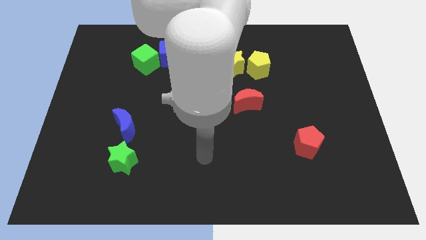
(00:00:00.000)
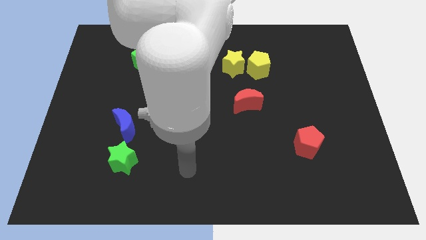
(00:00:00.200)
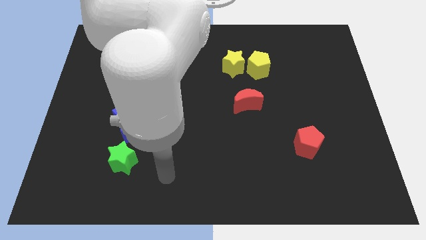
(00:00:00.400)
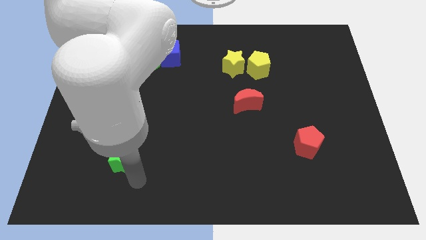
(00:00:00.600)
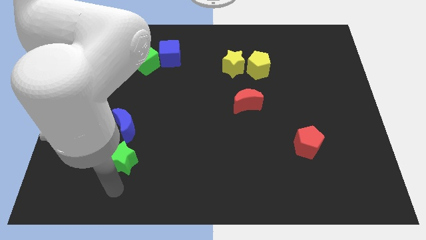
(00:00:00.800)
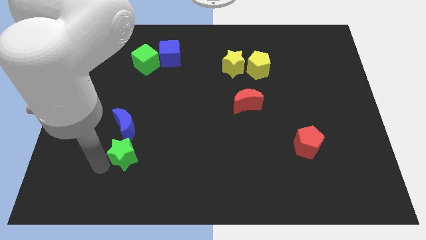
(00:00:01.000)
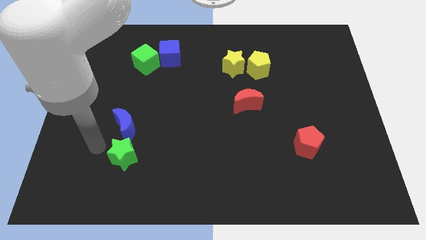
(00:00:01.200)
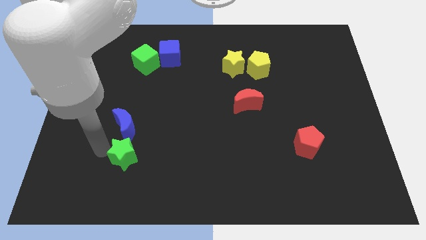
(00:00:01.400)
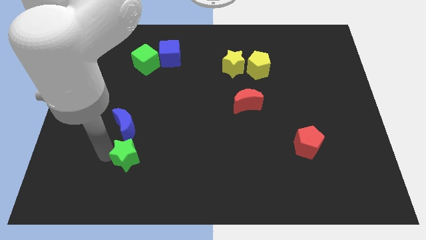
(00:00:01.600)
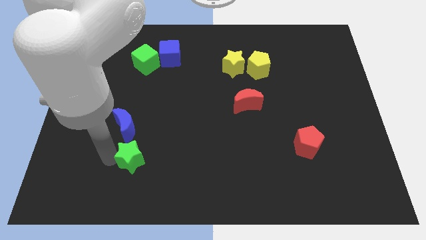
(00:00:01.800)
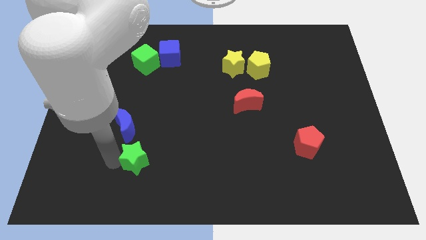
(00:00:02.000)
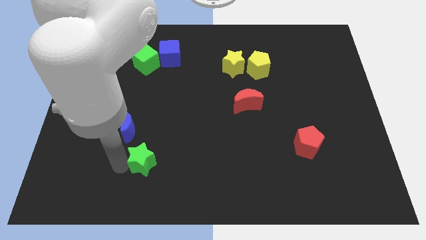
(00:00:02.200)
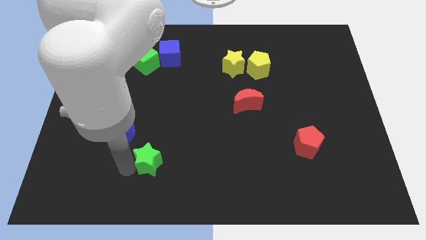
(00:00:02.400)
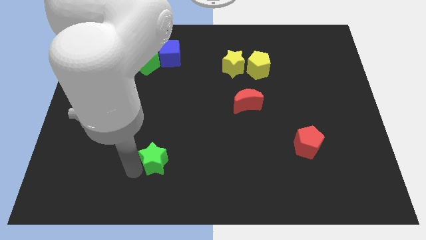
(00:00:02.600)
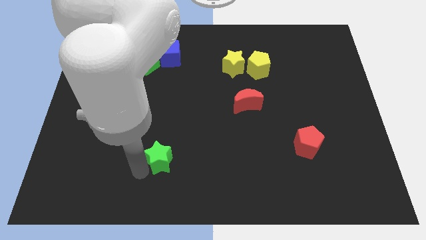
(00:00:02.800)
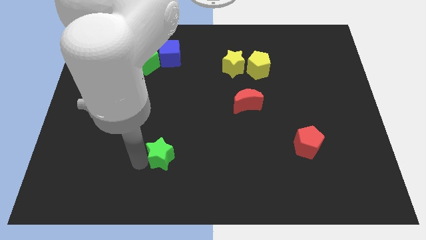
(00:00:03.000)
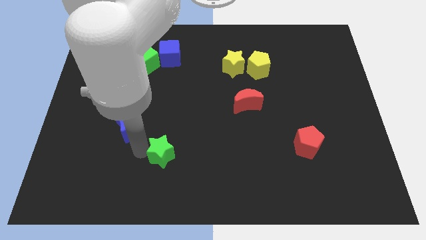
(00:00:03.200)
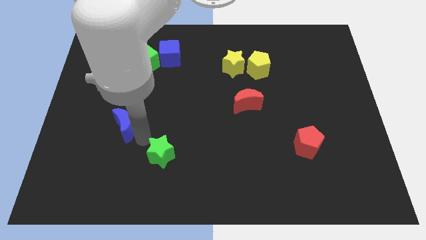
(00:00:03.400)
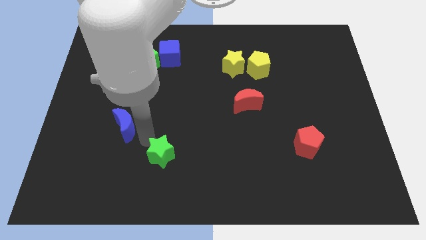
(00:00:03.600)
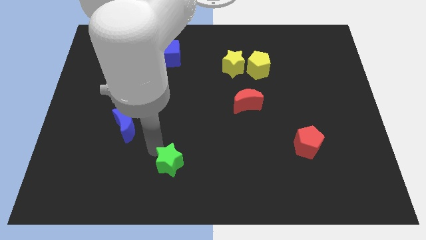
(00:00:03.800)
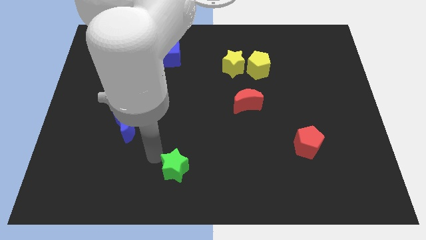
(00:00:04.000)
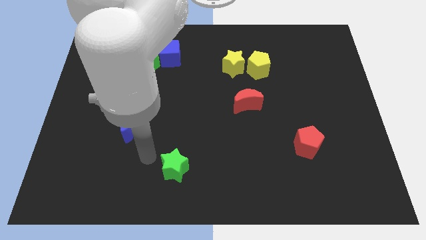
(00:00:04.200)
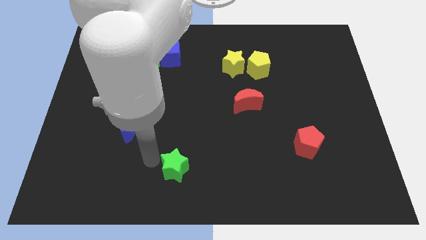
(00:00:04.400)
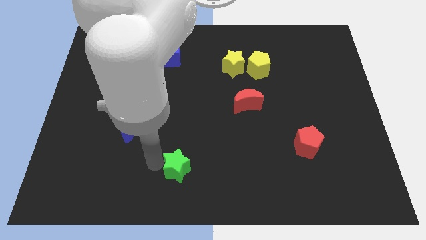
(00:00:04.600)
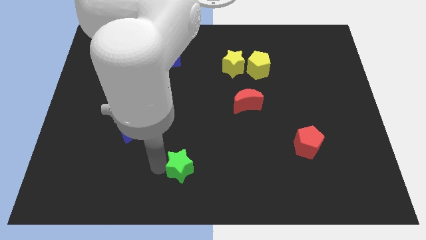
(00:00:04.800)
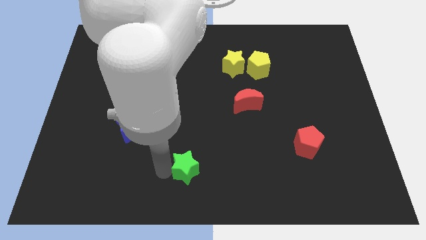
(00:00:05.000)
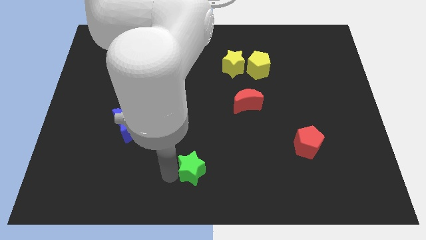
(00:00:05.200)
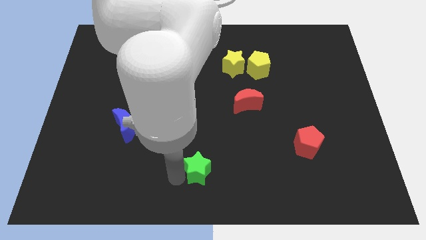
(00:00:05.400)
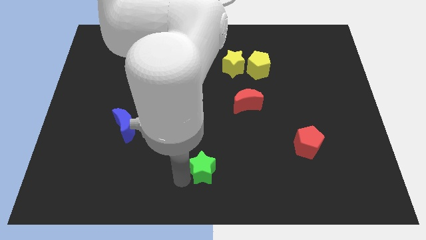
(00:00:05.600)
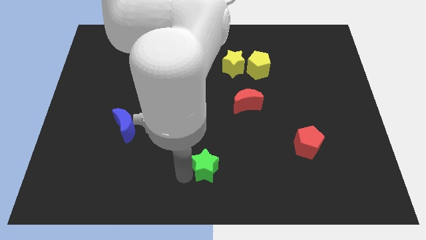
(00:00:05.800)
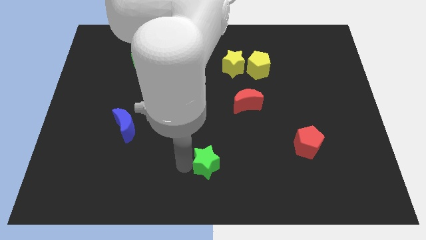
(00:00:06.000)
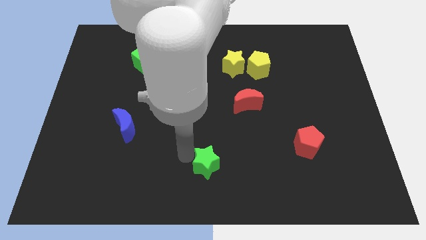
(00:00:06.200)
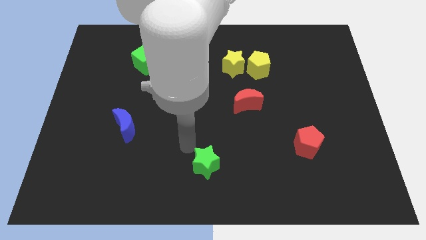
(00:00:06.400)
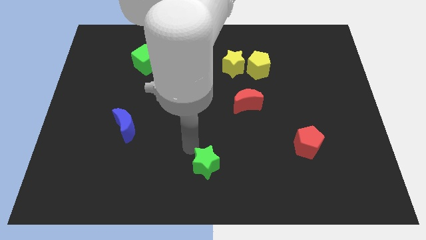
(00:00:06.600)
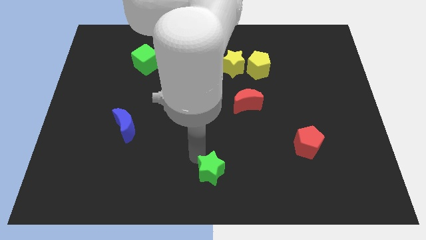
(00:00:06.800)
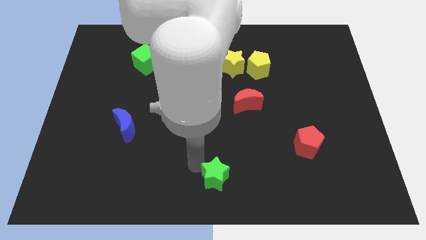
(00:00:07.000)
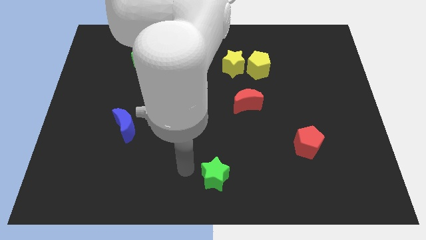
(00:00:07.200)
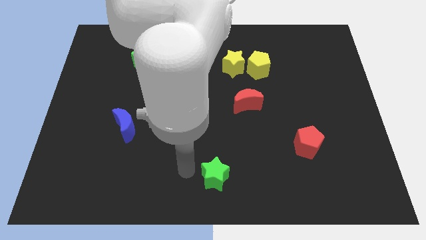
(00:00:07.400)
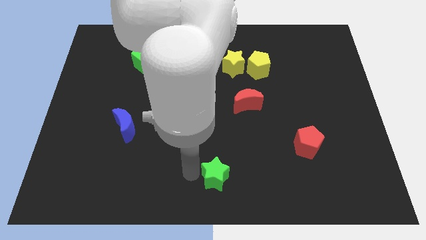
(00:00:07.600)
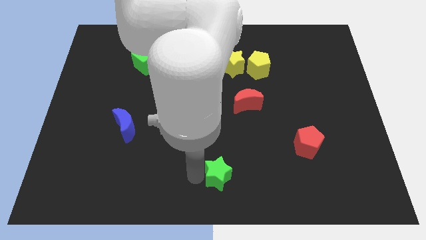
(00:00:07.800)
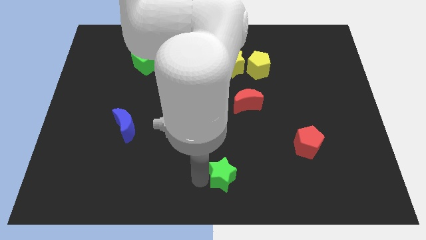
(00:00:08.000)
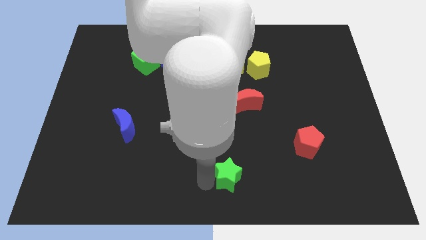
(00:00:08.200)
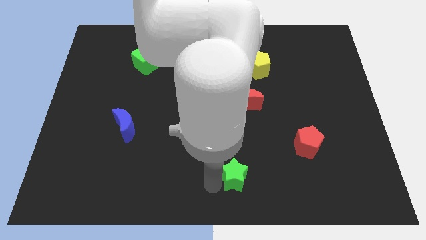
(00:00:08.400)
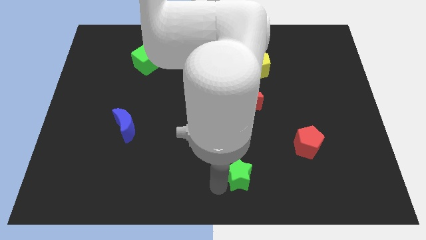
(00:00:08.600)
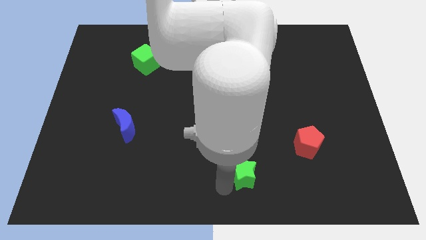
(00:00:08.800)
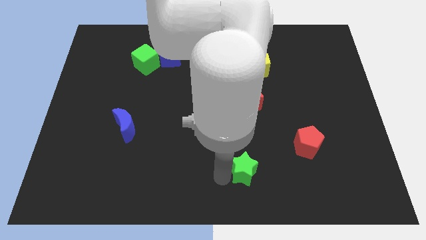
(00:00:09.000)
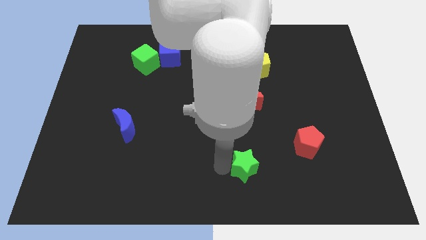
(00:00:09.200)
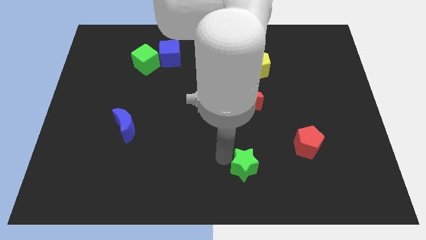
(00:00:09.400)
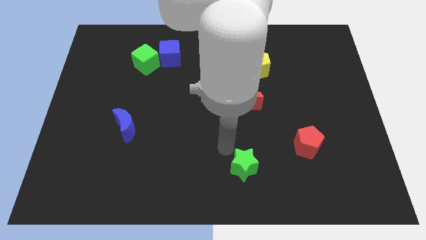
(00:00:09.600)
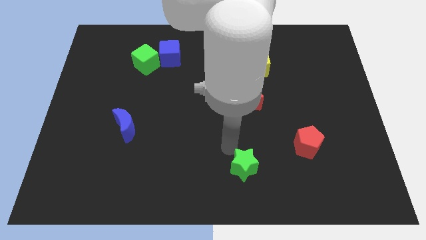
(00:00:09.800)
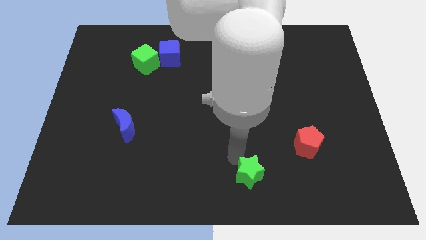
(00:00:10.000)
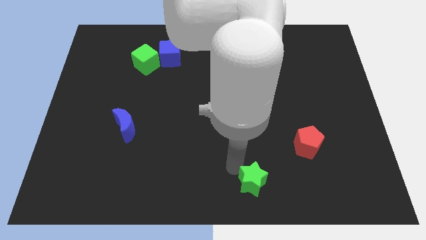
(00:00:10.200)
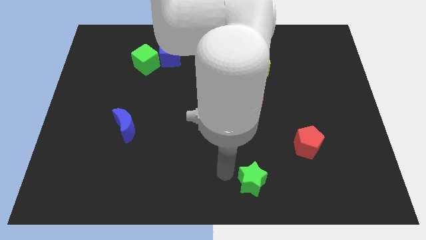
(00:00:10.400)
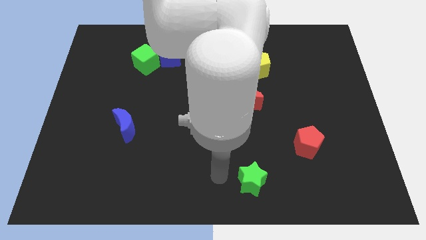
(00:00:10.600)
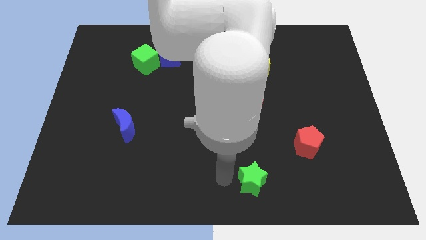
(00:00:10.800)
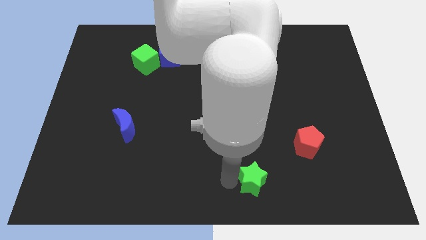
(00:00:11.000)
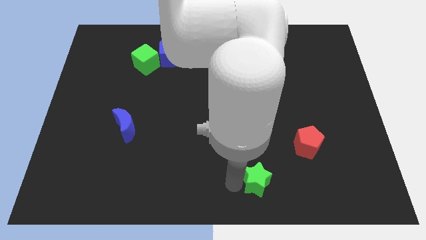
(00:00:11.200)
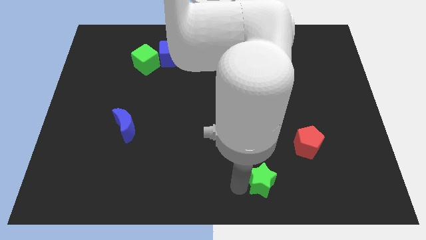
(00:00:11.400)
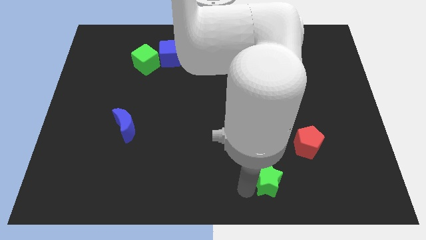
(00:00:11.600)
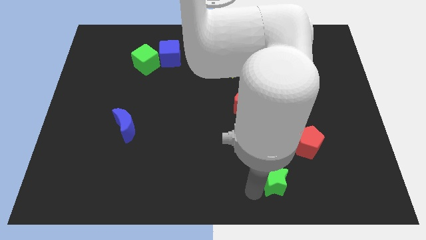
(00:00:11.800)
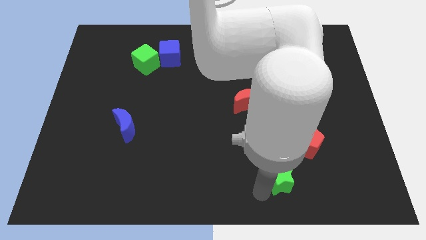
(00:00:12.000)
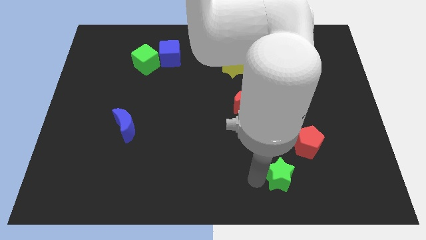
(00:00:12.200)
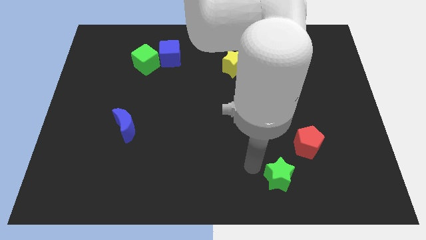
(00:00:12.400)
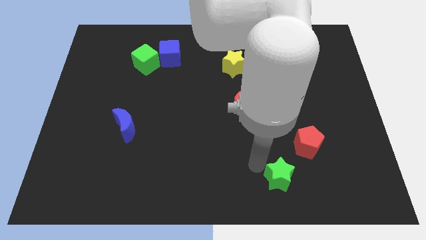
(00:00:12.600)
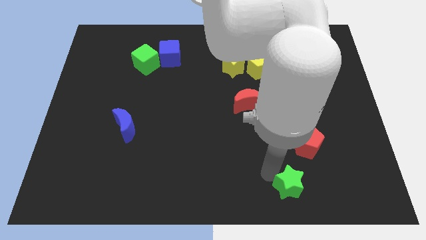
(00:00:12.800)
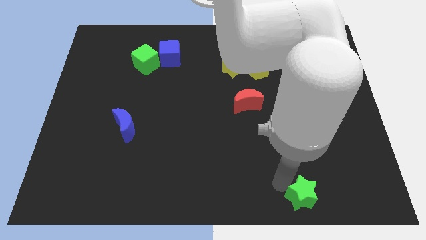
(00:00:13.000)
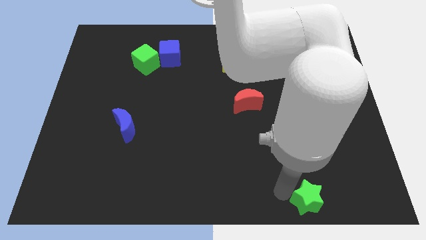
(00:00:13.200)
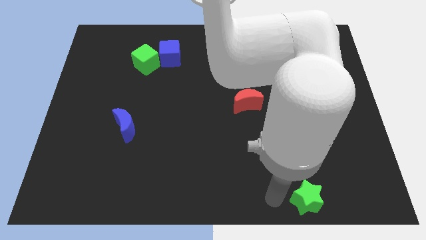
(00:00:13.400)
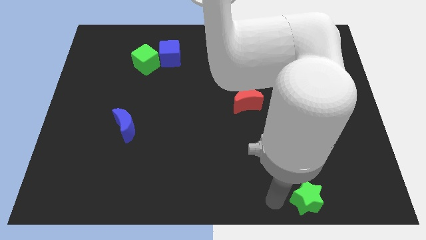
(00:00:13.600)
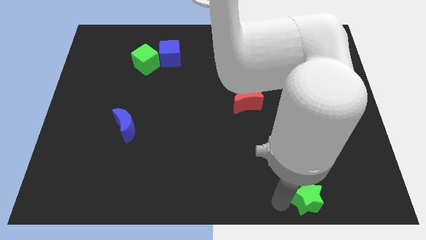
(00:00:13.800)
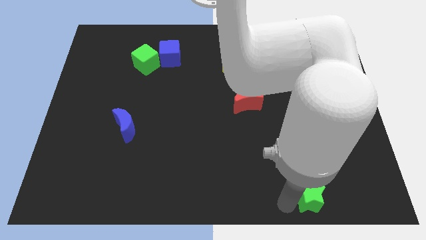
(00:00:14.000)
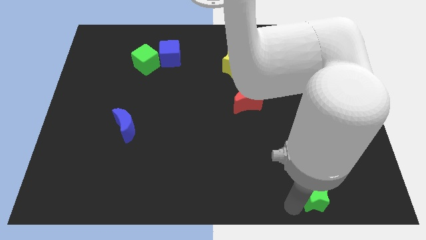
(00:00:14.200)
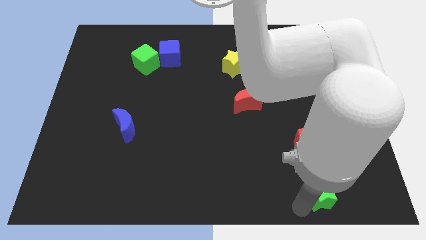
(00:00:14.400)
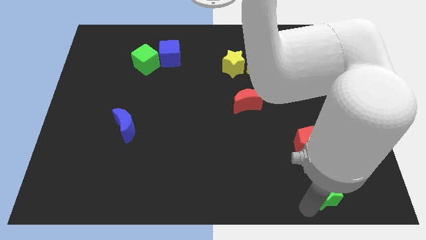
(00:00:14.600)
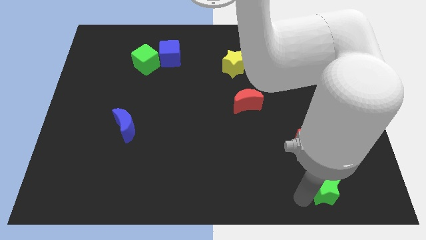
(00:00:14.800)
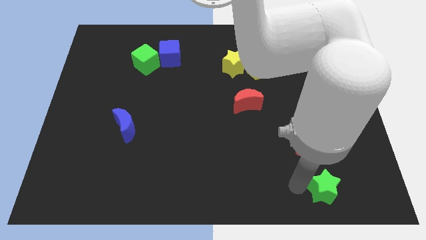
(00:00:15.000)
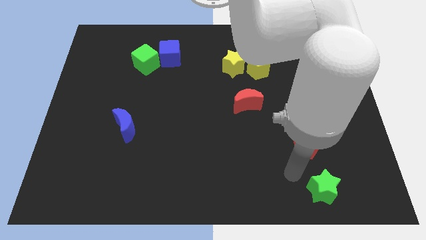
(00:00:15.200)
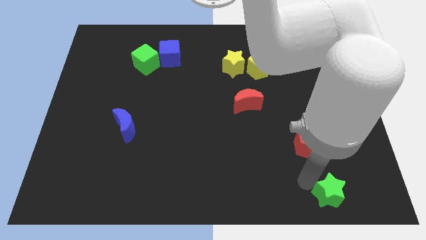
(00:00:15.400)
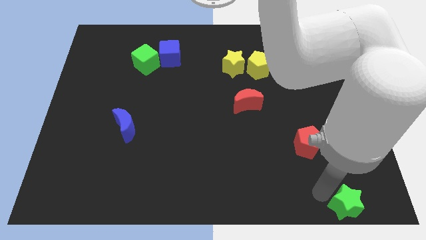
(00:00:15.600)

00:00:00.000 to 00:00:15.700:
move the green star to the bottom right of the board
